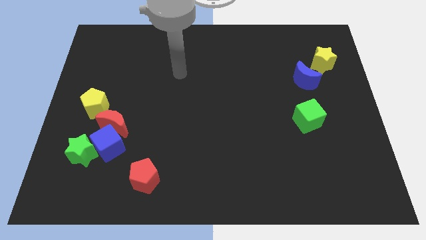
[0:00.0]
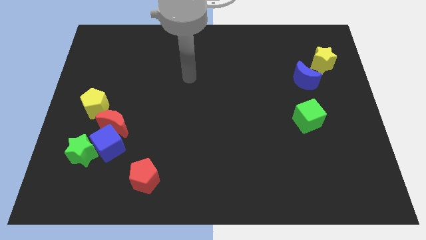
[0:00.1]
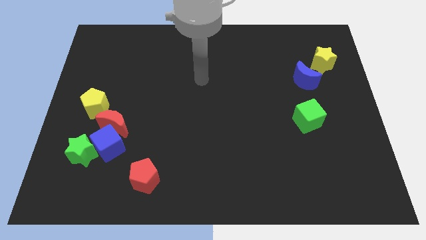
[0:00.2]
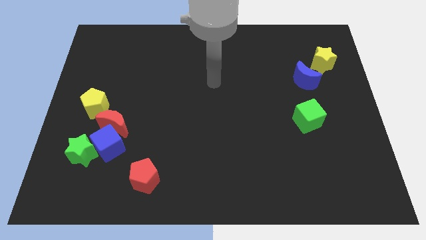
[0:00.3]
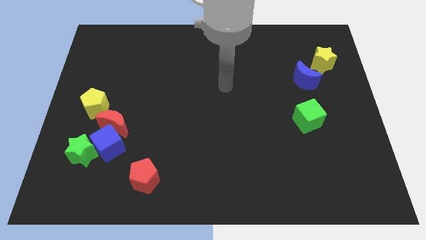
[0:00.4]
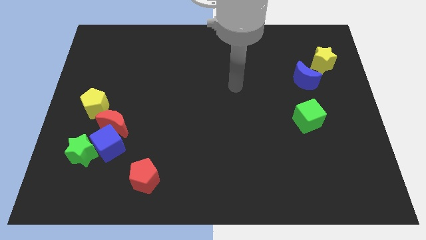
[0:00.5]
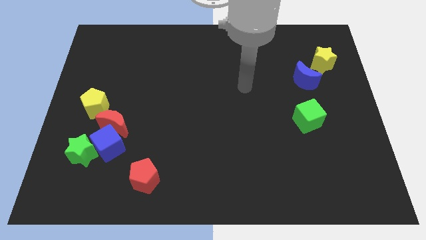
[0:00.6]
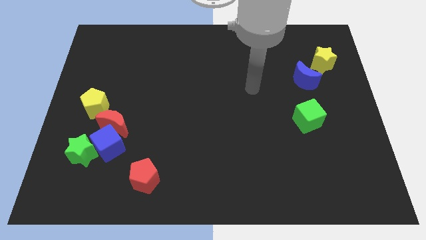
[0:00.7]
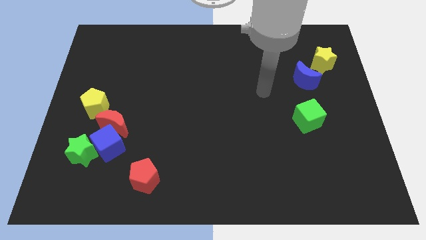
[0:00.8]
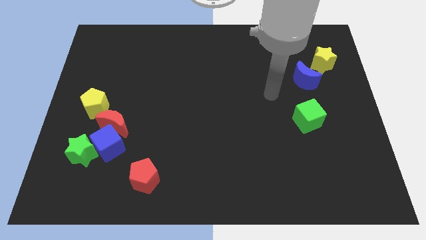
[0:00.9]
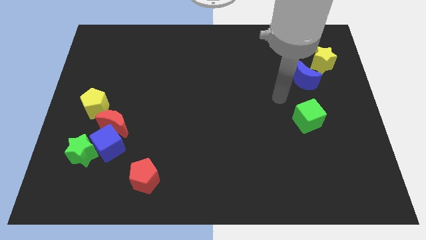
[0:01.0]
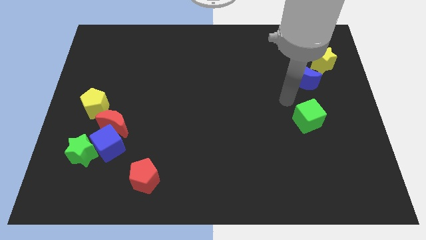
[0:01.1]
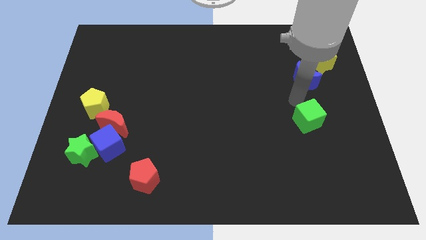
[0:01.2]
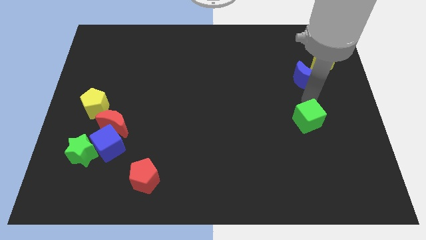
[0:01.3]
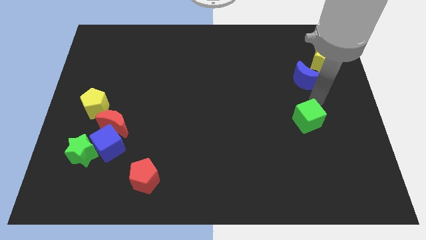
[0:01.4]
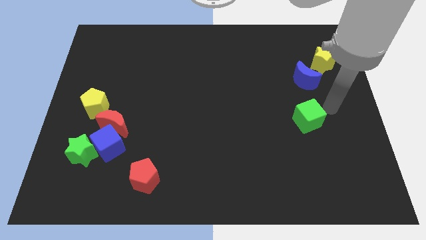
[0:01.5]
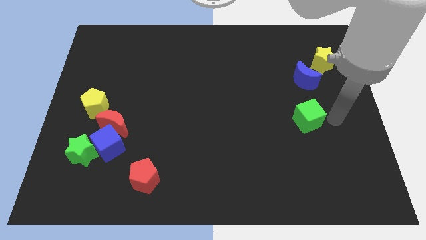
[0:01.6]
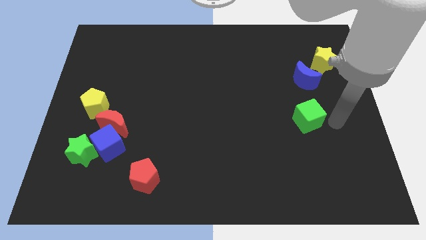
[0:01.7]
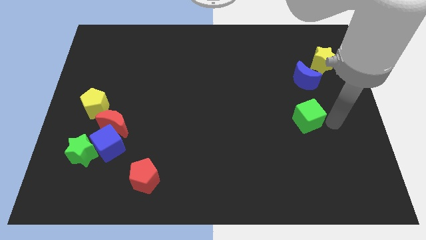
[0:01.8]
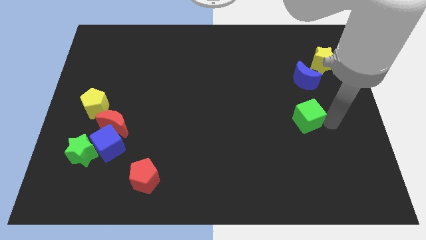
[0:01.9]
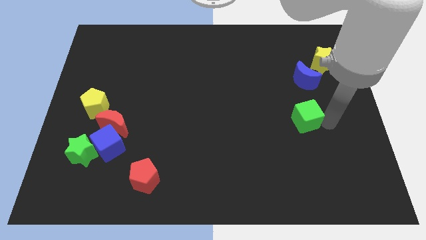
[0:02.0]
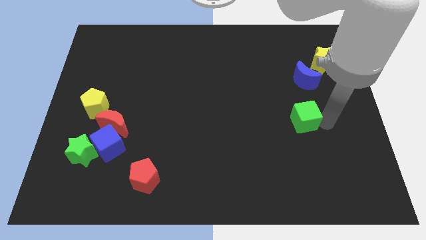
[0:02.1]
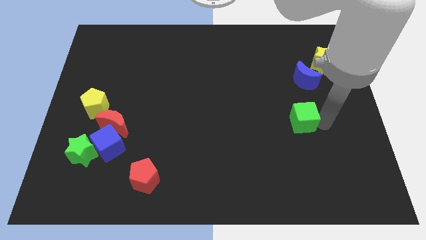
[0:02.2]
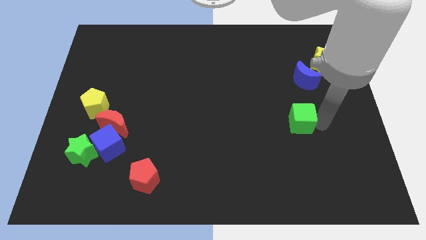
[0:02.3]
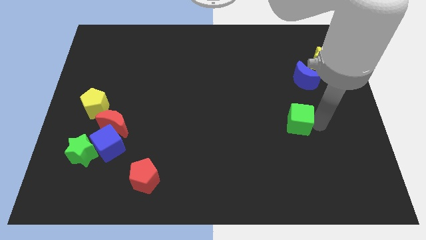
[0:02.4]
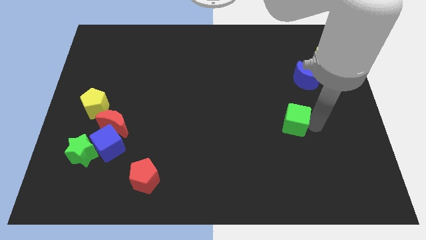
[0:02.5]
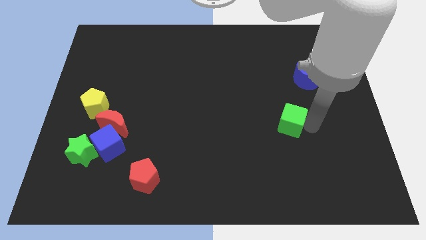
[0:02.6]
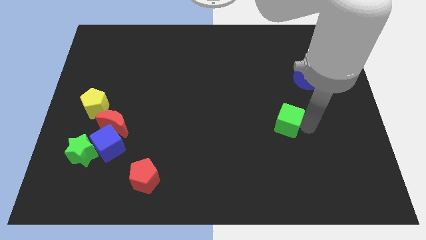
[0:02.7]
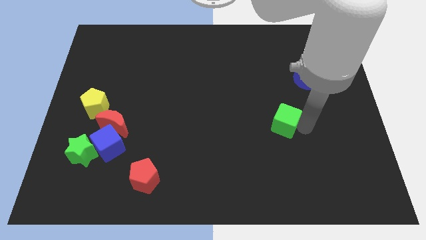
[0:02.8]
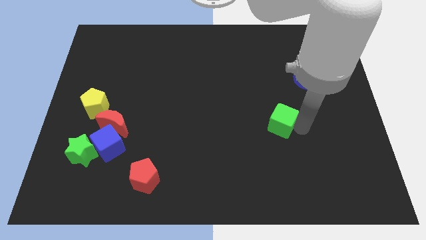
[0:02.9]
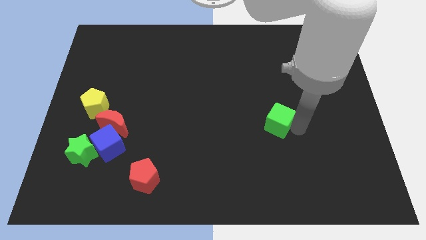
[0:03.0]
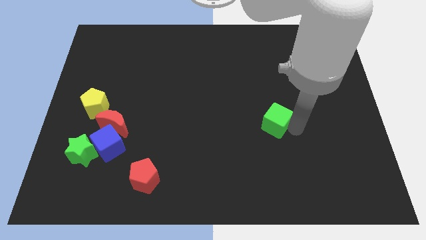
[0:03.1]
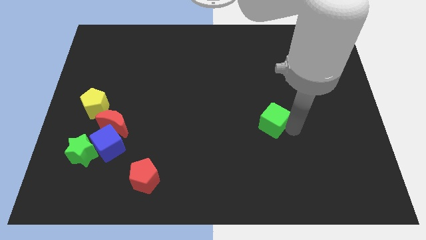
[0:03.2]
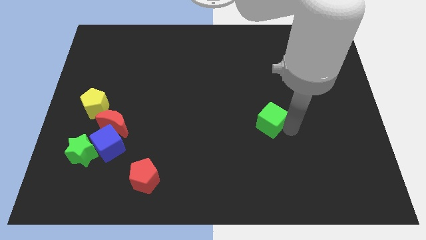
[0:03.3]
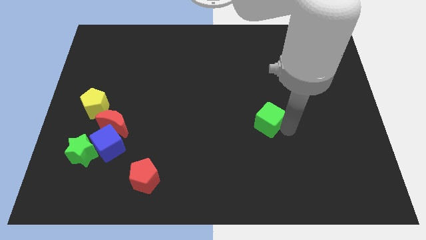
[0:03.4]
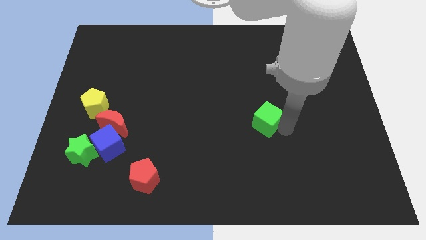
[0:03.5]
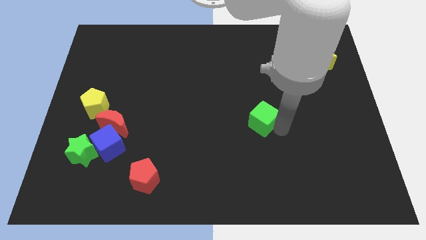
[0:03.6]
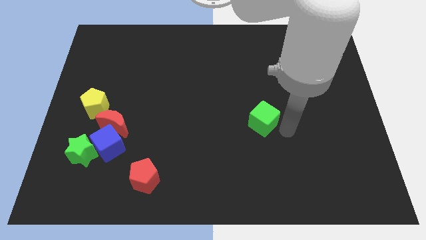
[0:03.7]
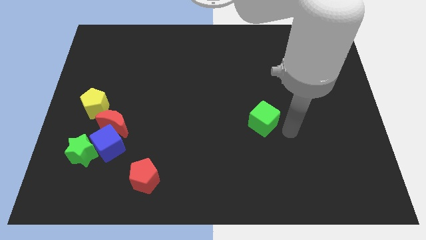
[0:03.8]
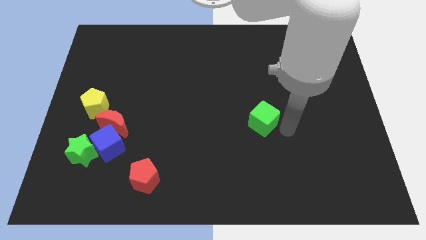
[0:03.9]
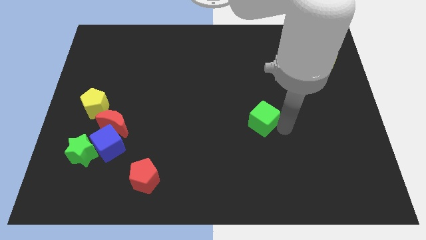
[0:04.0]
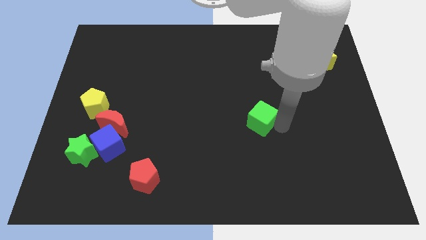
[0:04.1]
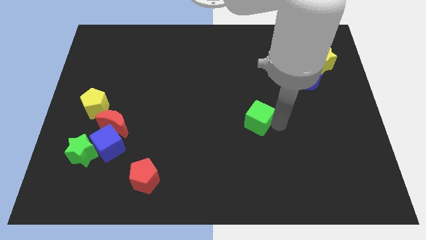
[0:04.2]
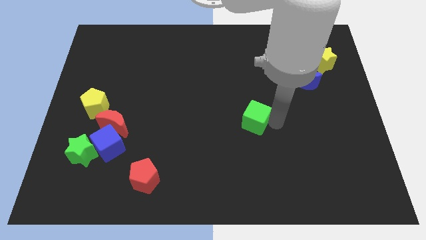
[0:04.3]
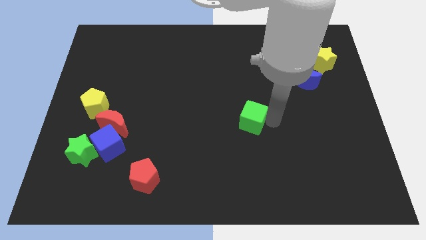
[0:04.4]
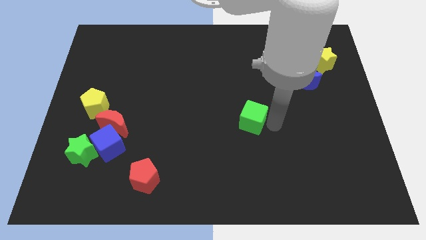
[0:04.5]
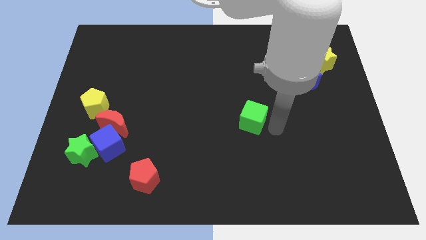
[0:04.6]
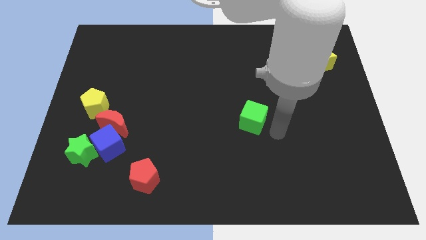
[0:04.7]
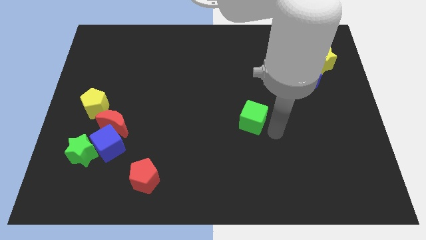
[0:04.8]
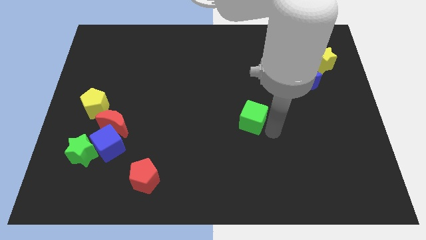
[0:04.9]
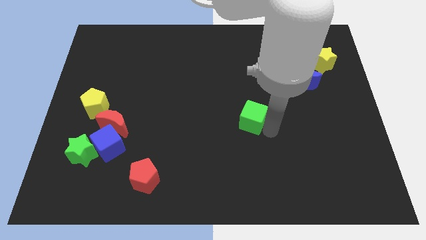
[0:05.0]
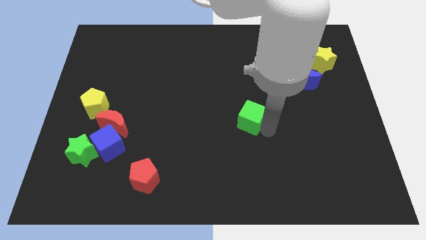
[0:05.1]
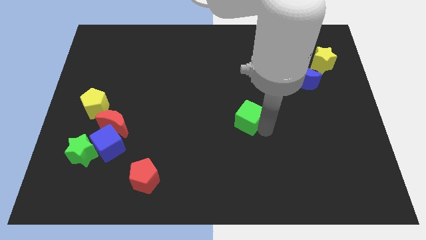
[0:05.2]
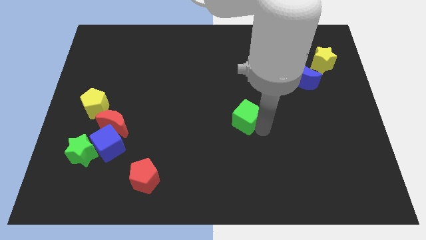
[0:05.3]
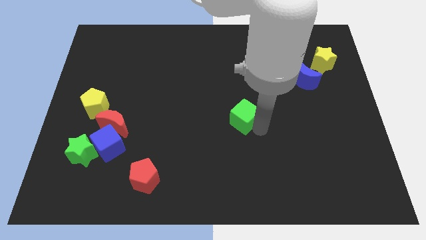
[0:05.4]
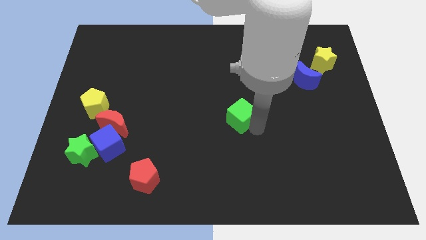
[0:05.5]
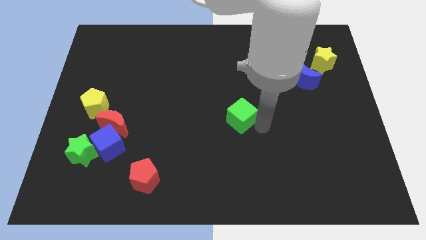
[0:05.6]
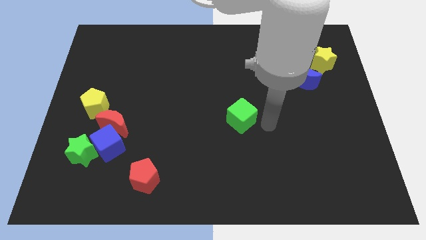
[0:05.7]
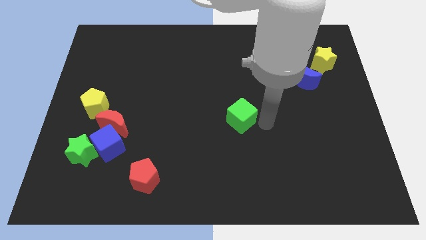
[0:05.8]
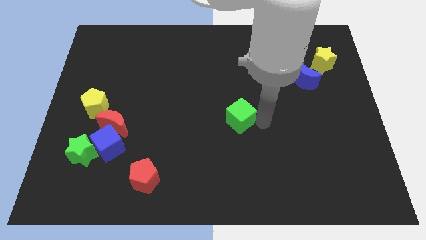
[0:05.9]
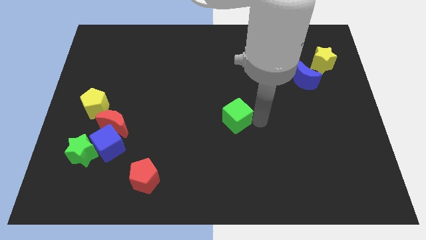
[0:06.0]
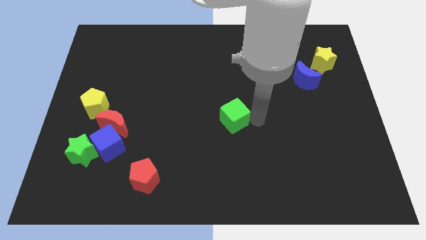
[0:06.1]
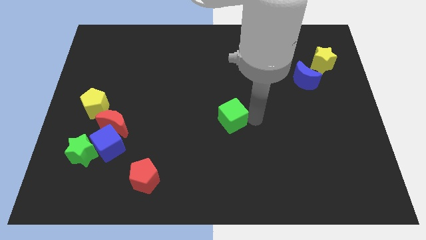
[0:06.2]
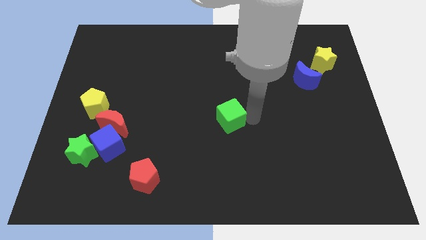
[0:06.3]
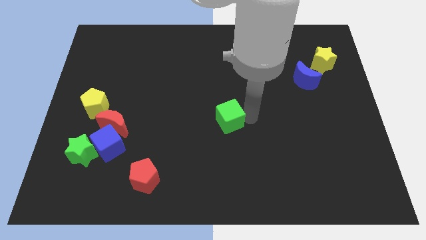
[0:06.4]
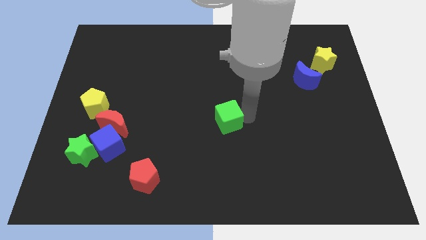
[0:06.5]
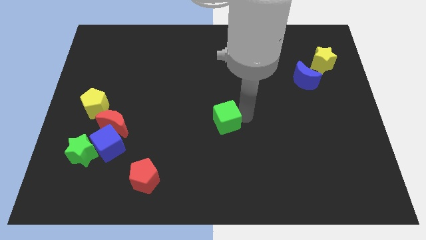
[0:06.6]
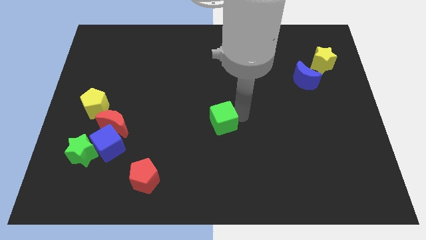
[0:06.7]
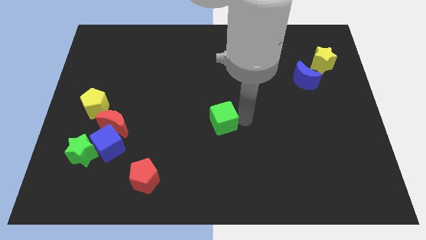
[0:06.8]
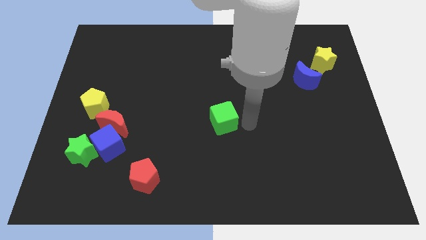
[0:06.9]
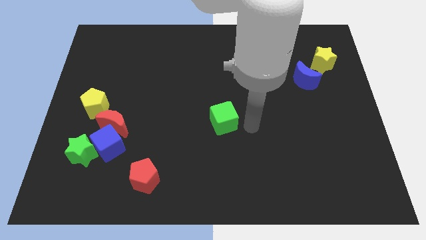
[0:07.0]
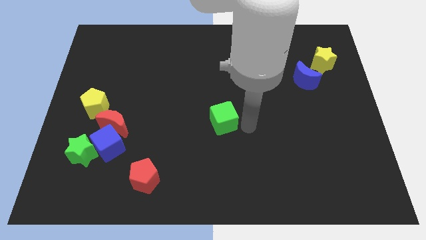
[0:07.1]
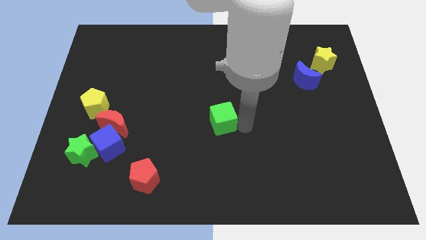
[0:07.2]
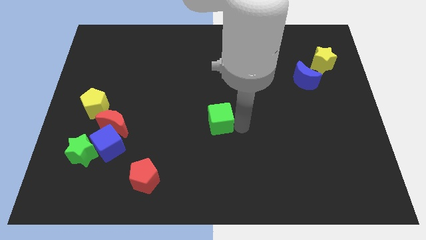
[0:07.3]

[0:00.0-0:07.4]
push the green cube to the left

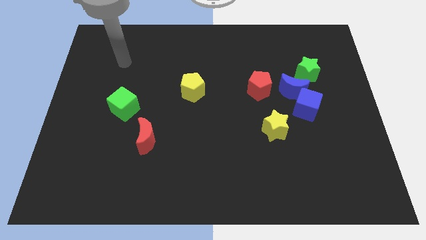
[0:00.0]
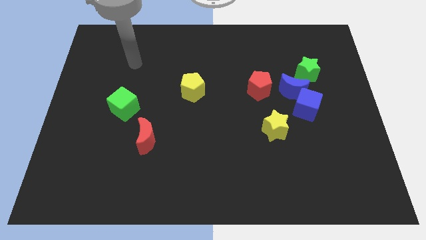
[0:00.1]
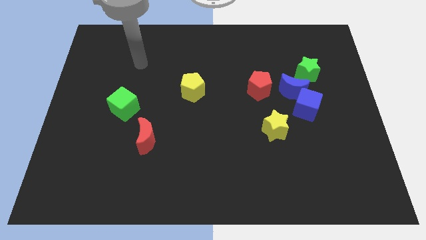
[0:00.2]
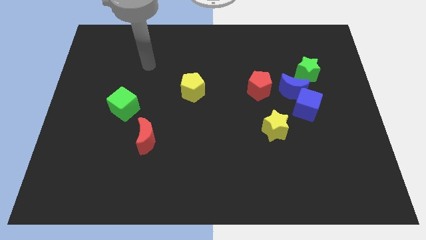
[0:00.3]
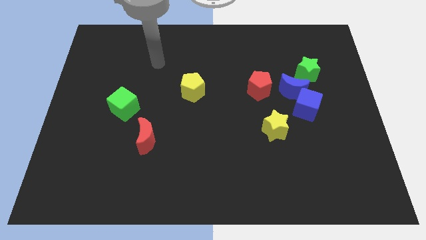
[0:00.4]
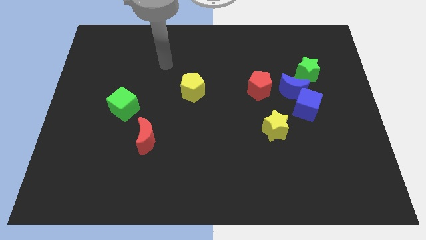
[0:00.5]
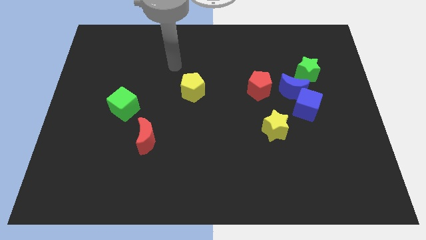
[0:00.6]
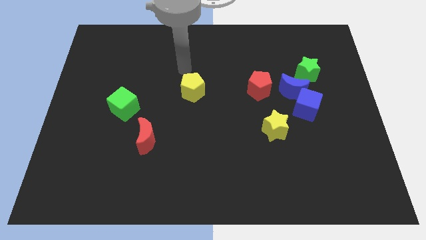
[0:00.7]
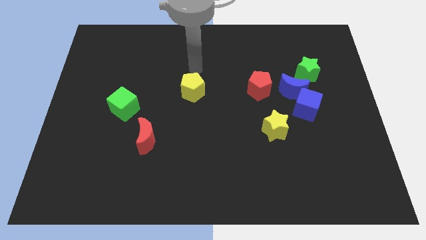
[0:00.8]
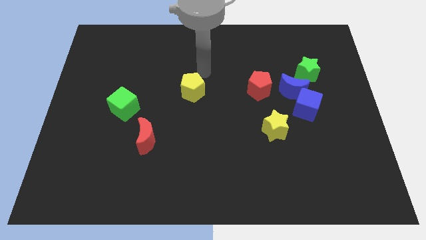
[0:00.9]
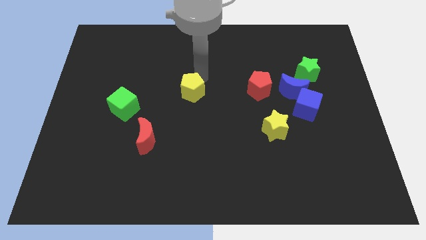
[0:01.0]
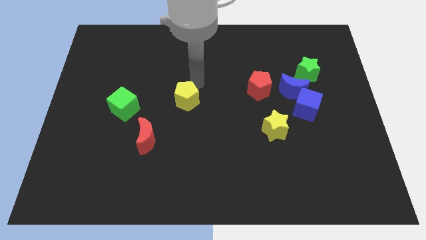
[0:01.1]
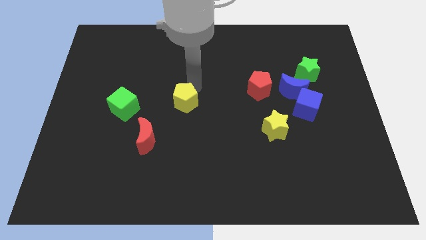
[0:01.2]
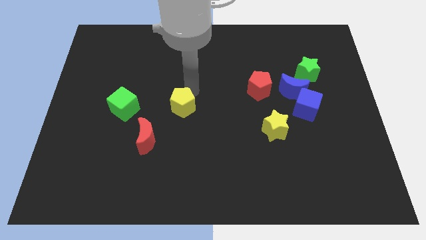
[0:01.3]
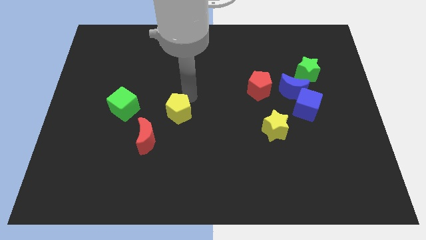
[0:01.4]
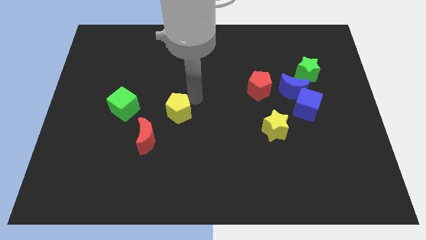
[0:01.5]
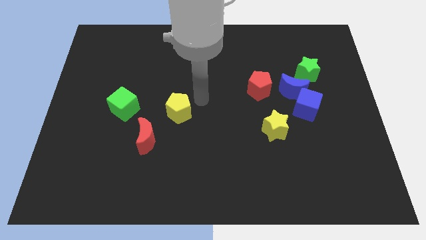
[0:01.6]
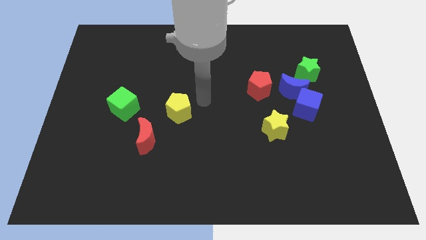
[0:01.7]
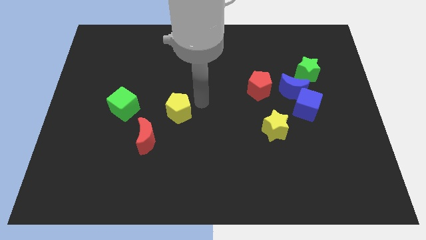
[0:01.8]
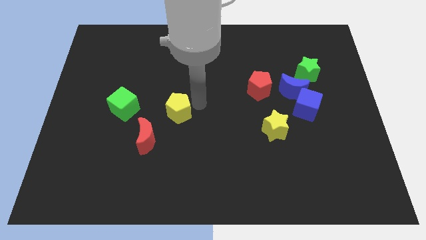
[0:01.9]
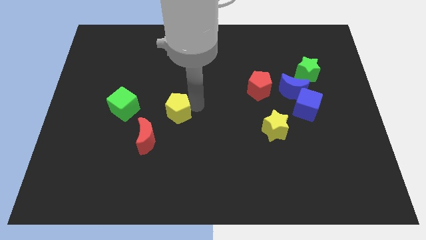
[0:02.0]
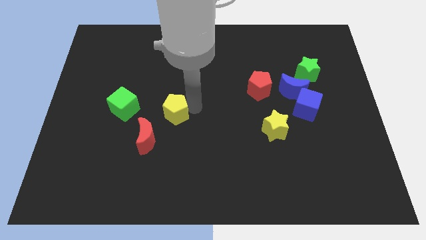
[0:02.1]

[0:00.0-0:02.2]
push the yellow pentagon somewhat downwards and then left
